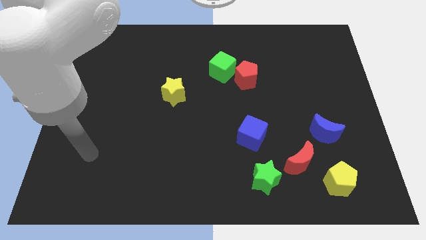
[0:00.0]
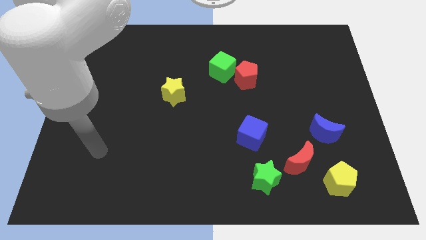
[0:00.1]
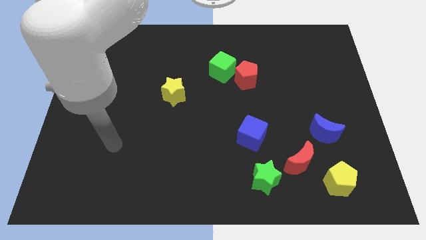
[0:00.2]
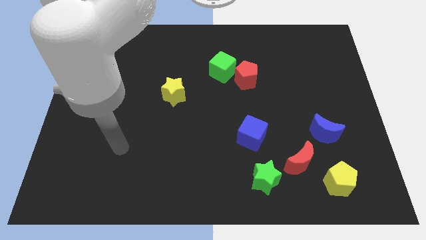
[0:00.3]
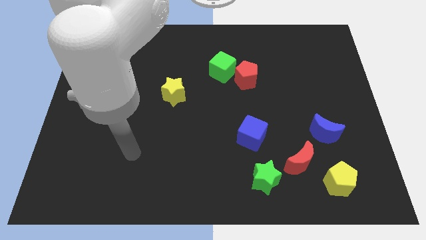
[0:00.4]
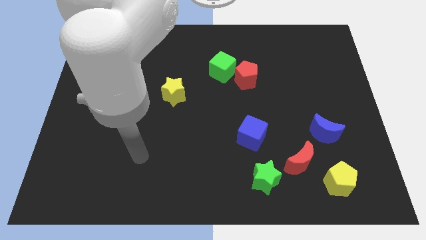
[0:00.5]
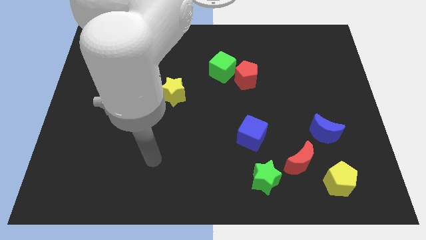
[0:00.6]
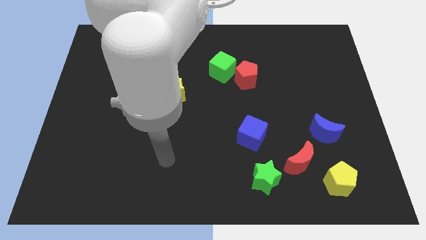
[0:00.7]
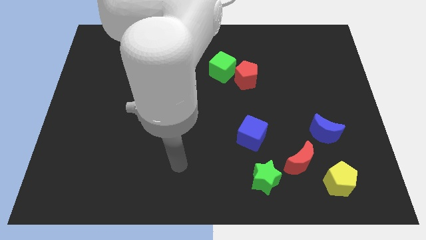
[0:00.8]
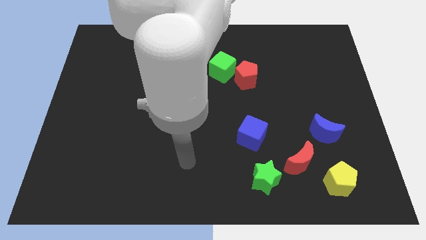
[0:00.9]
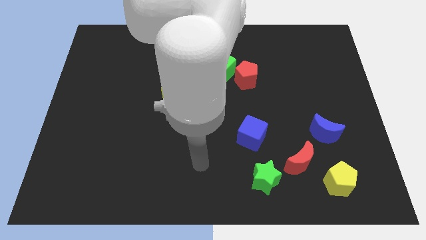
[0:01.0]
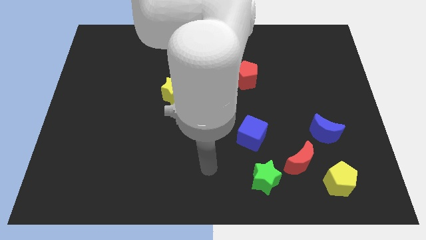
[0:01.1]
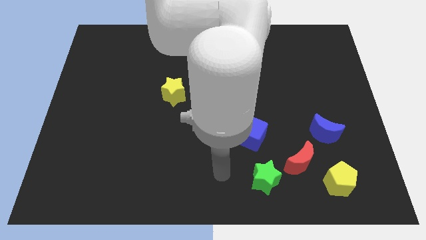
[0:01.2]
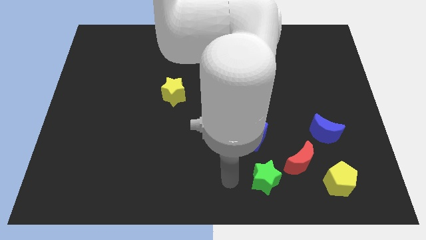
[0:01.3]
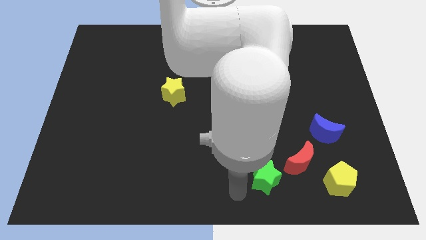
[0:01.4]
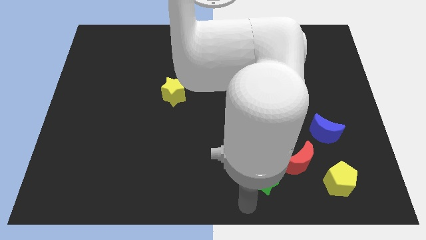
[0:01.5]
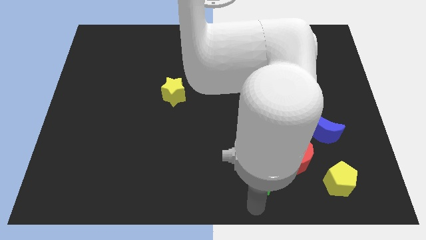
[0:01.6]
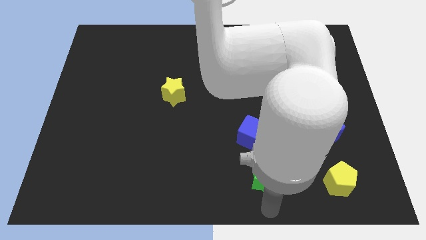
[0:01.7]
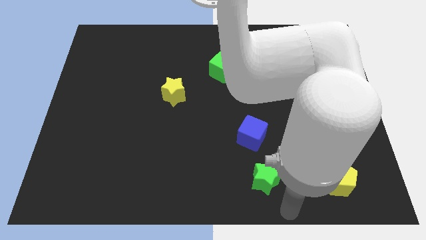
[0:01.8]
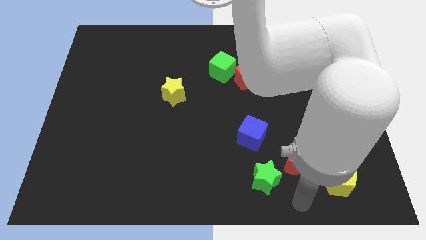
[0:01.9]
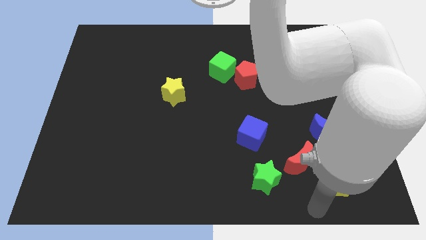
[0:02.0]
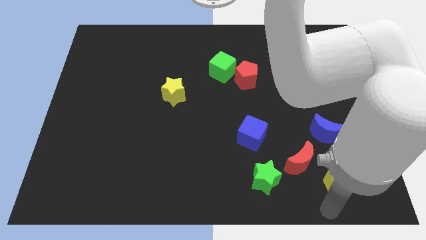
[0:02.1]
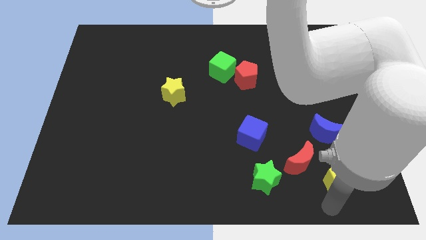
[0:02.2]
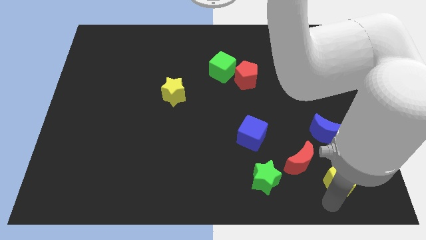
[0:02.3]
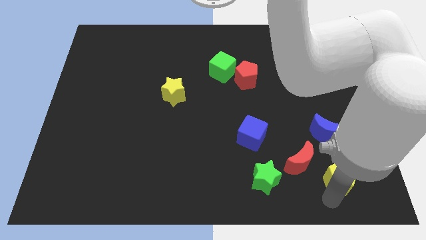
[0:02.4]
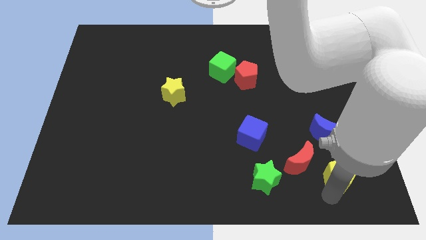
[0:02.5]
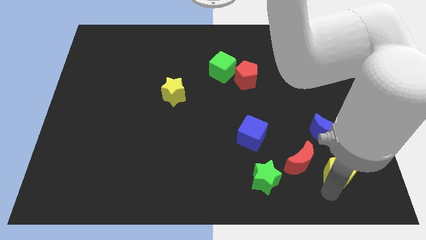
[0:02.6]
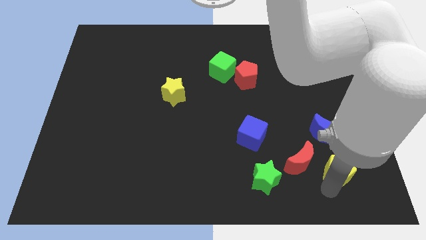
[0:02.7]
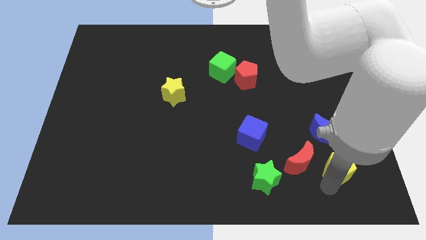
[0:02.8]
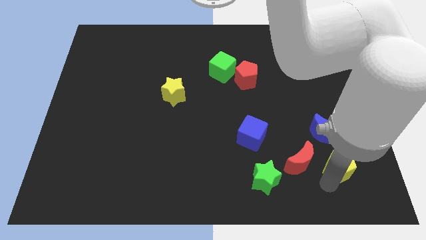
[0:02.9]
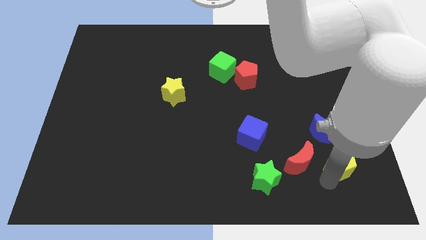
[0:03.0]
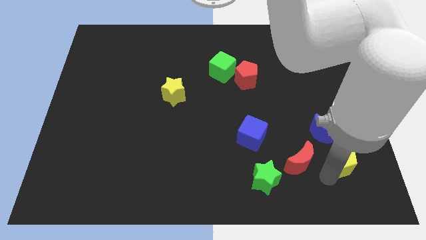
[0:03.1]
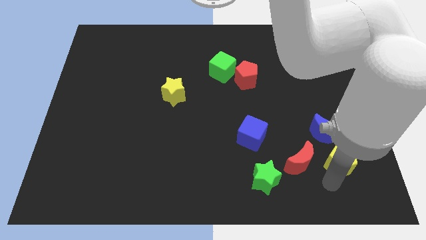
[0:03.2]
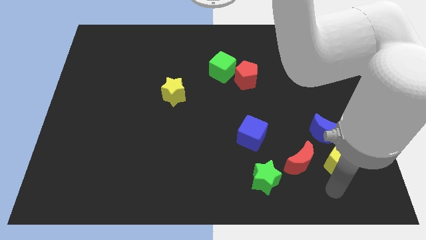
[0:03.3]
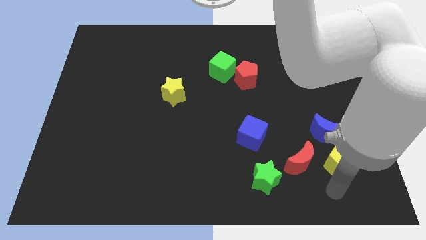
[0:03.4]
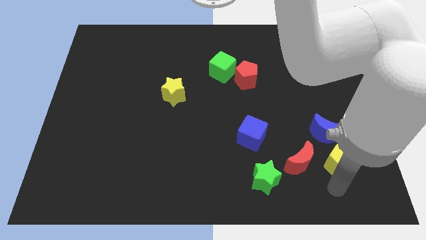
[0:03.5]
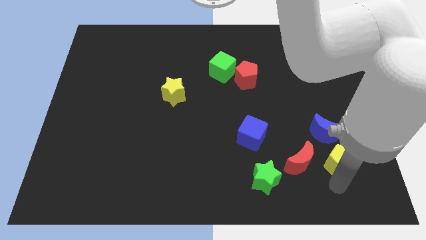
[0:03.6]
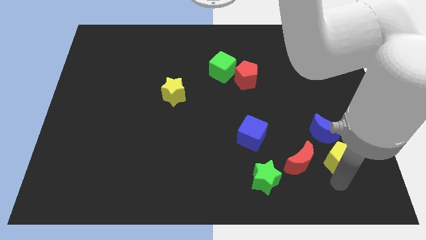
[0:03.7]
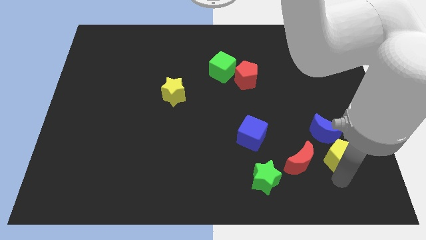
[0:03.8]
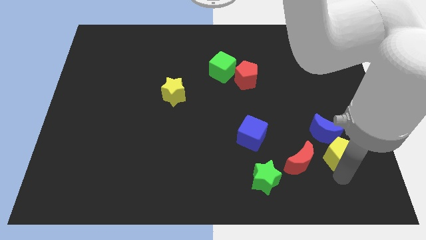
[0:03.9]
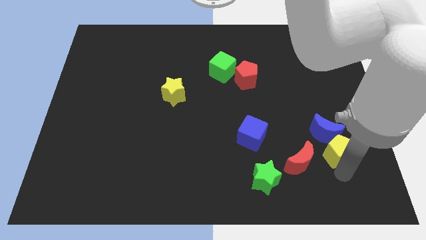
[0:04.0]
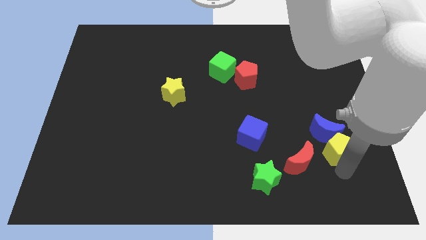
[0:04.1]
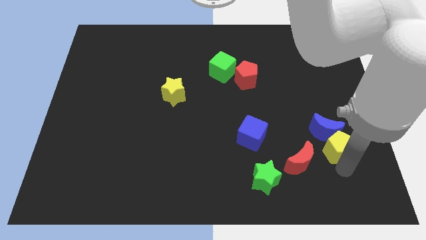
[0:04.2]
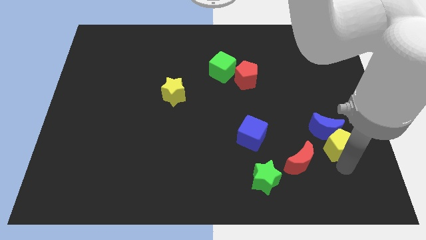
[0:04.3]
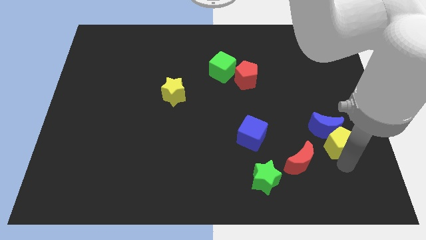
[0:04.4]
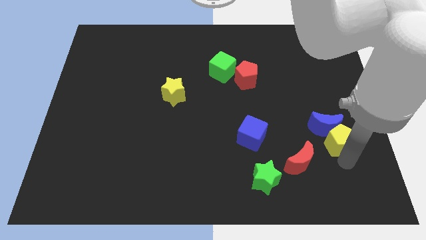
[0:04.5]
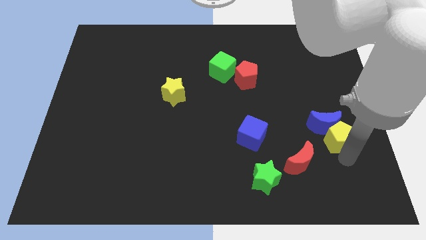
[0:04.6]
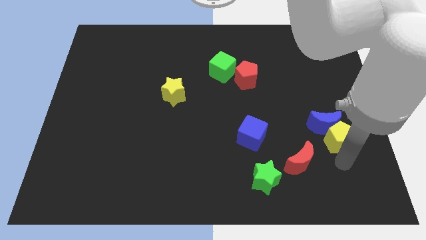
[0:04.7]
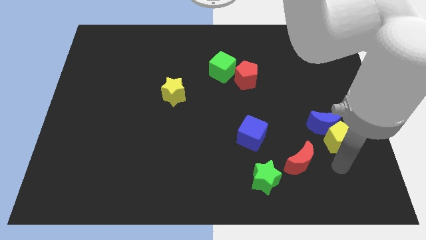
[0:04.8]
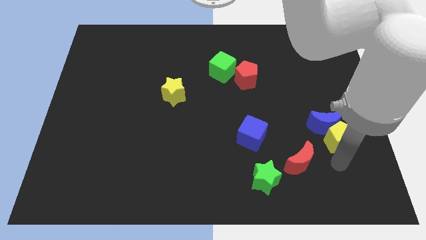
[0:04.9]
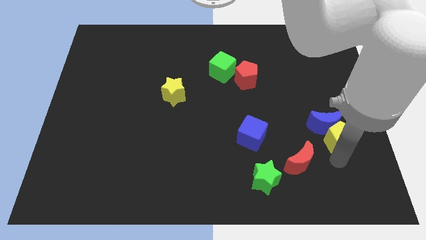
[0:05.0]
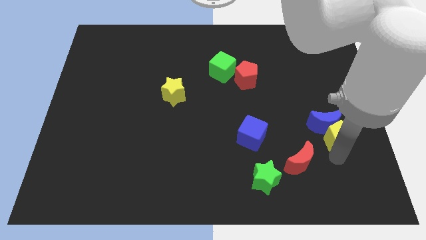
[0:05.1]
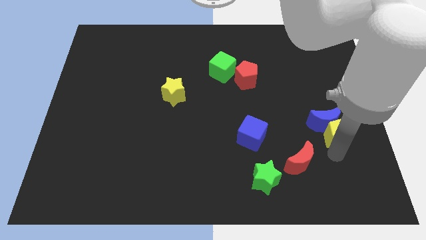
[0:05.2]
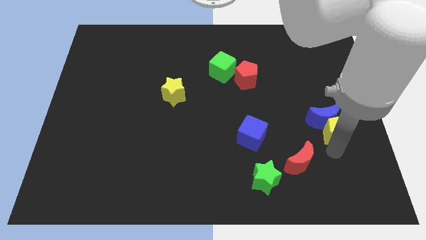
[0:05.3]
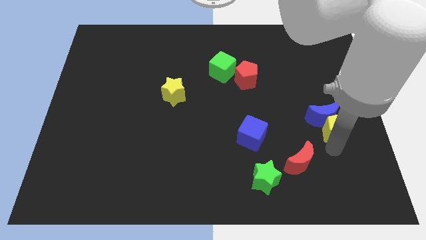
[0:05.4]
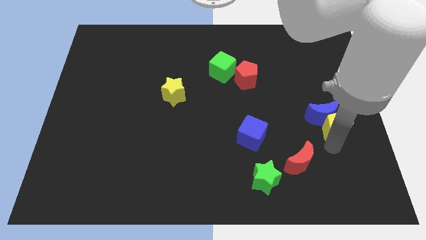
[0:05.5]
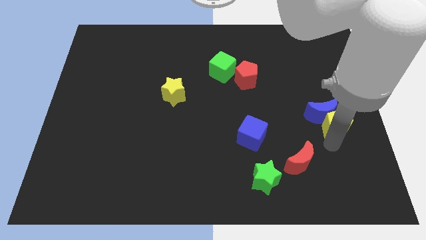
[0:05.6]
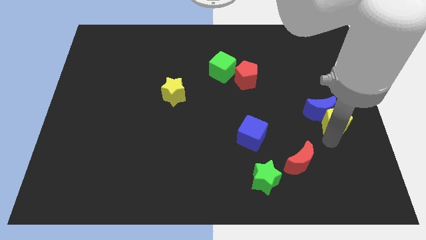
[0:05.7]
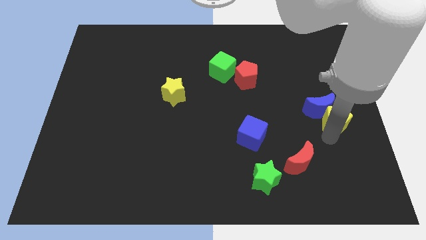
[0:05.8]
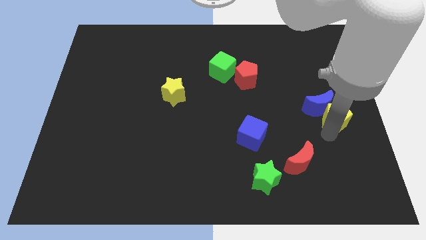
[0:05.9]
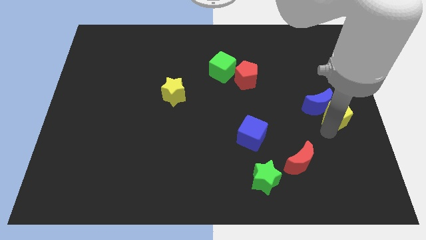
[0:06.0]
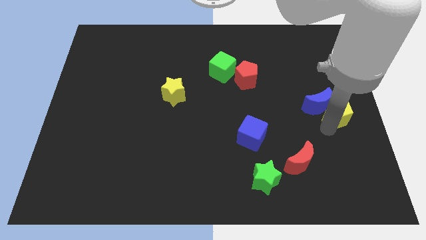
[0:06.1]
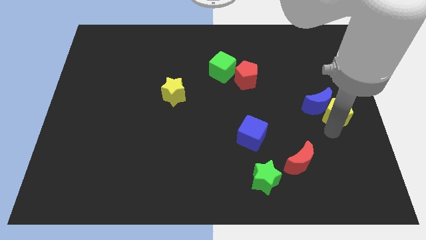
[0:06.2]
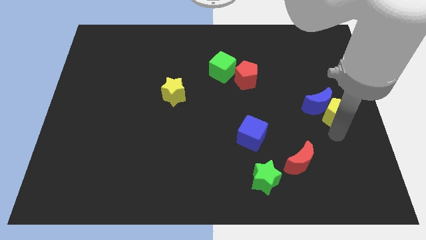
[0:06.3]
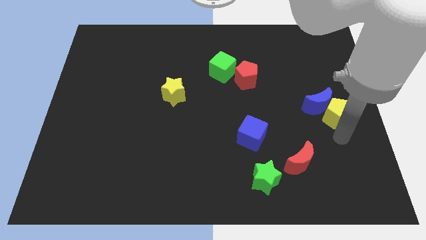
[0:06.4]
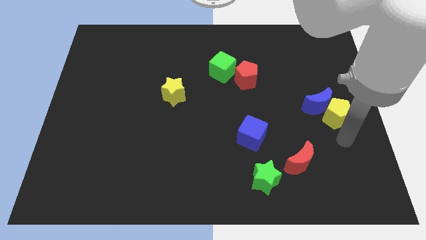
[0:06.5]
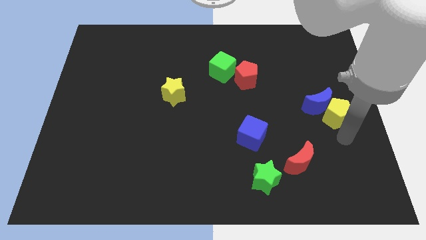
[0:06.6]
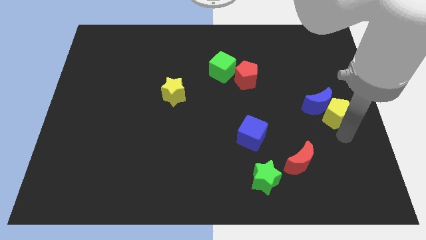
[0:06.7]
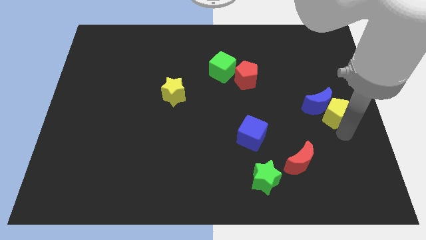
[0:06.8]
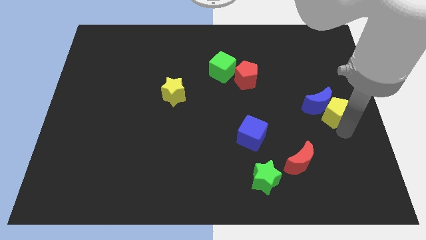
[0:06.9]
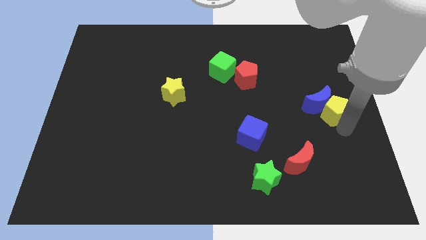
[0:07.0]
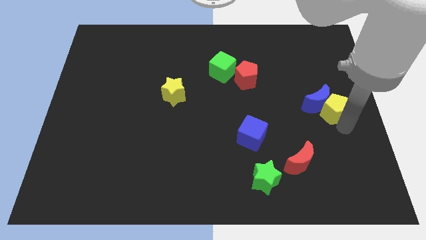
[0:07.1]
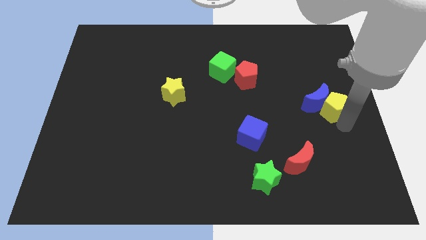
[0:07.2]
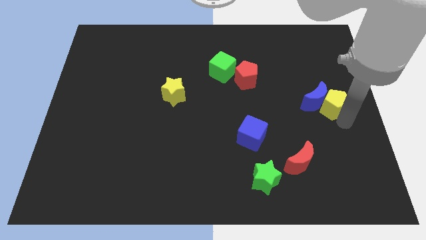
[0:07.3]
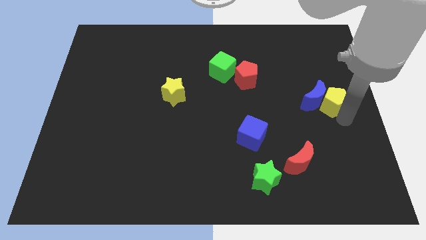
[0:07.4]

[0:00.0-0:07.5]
push the yellow pentagon upwards

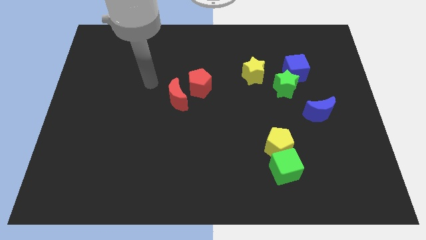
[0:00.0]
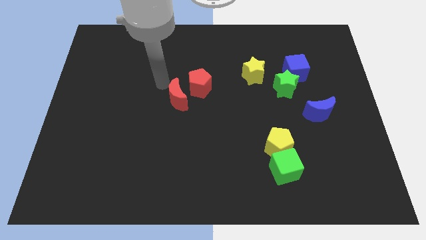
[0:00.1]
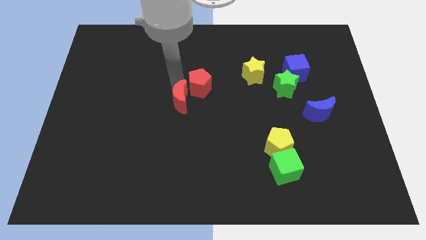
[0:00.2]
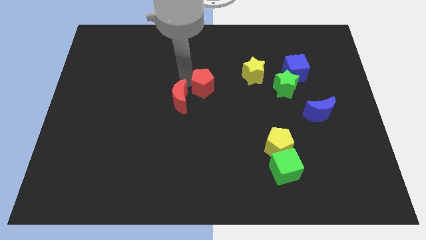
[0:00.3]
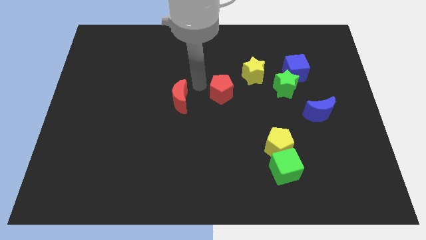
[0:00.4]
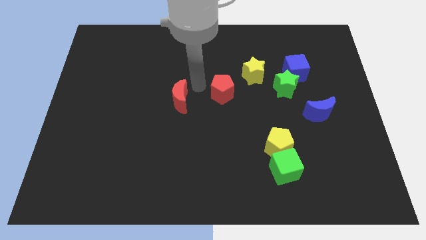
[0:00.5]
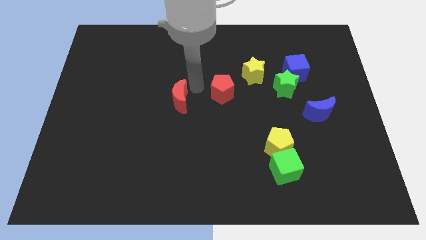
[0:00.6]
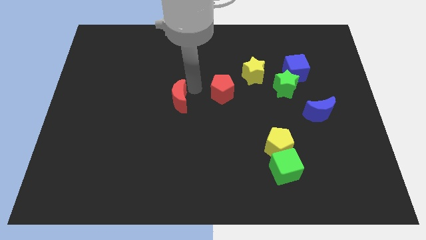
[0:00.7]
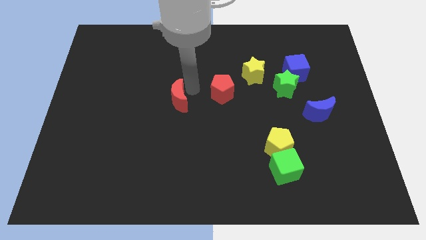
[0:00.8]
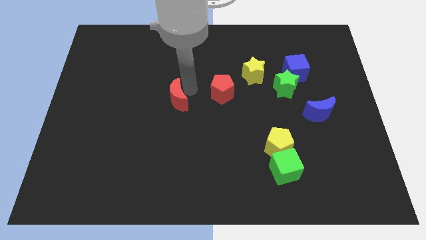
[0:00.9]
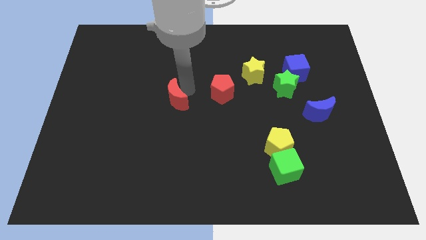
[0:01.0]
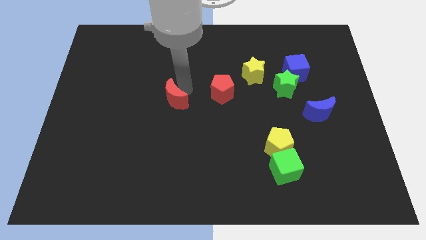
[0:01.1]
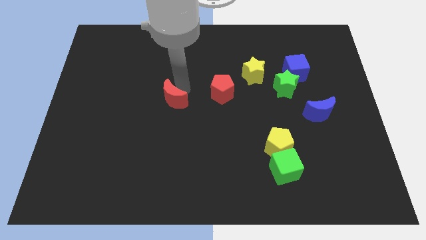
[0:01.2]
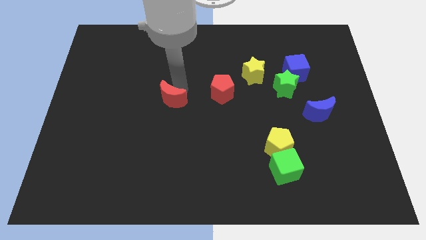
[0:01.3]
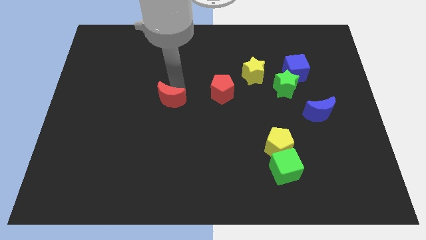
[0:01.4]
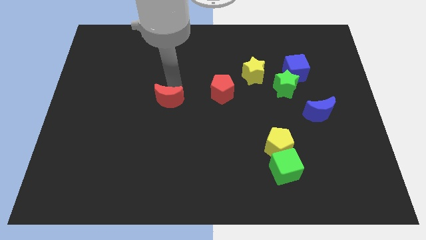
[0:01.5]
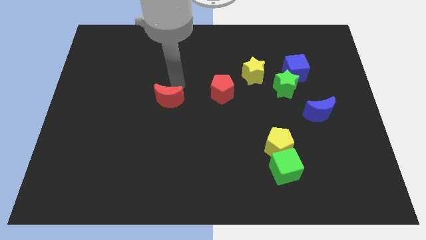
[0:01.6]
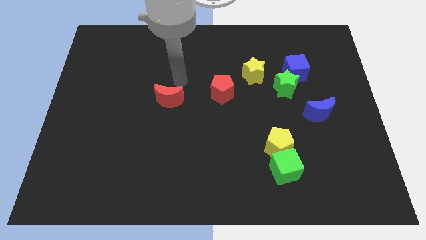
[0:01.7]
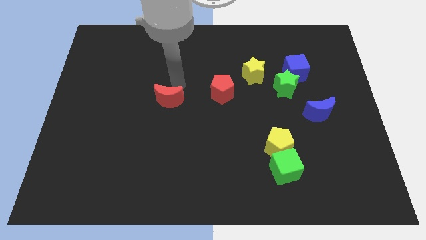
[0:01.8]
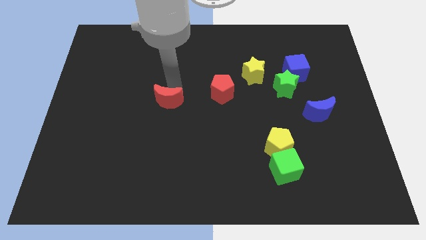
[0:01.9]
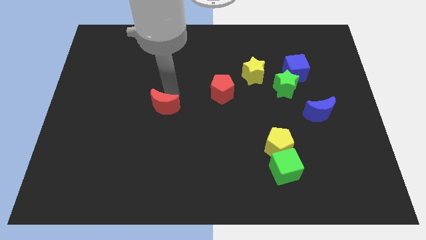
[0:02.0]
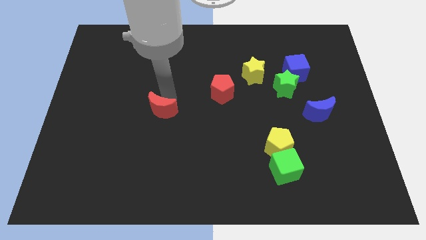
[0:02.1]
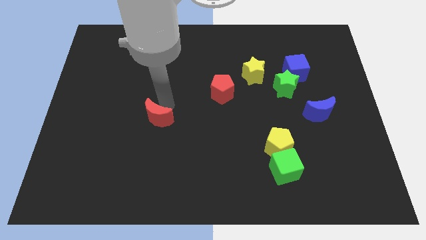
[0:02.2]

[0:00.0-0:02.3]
slightly move the red moon diagonally downwards and to the left
